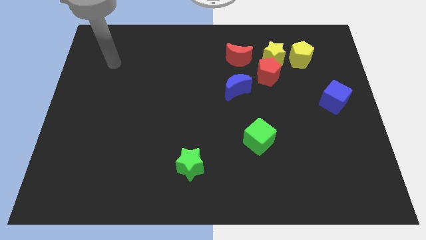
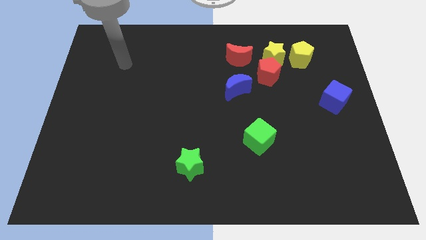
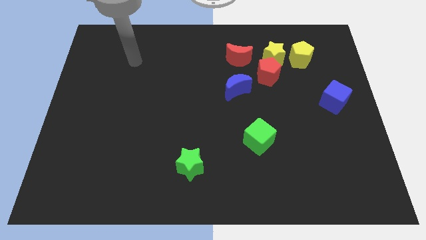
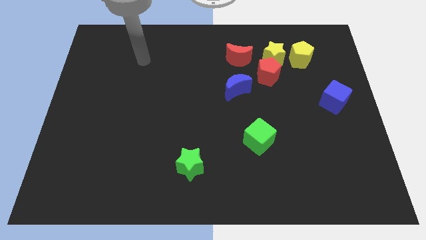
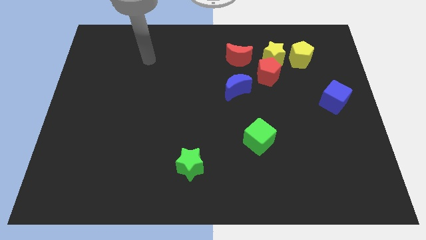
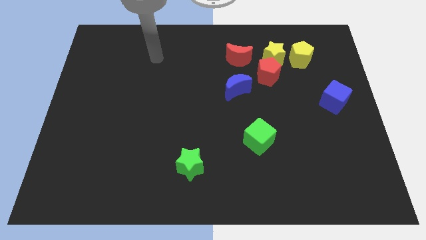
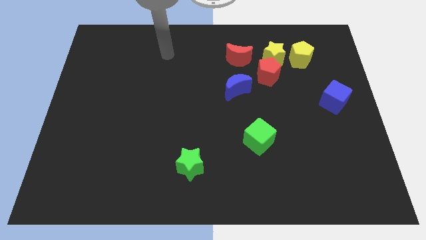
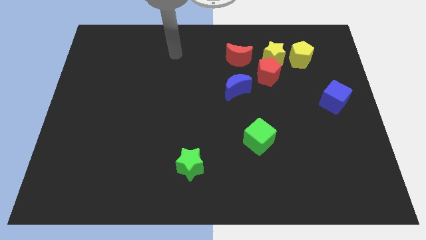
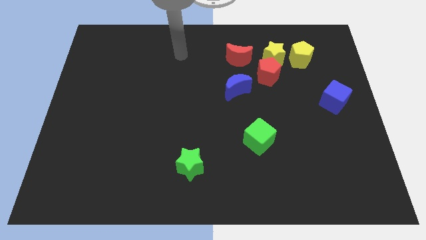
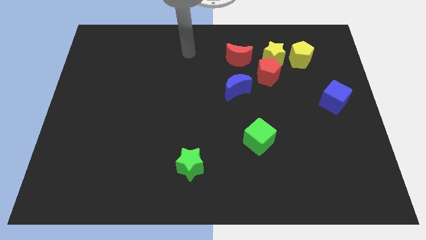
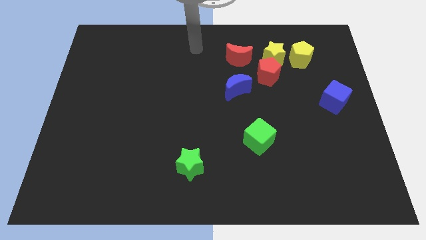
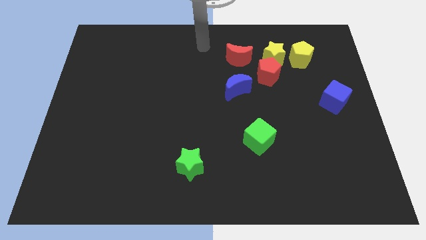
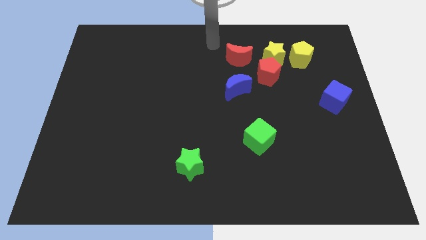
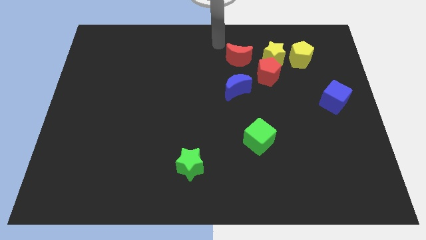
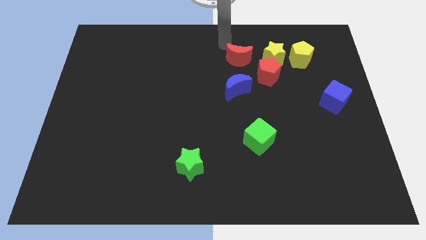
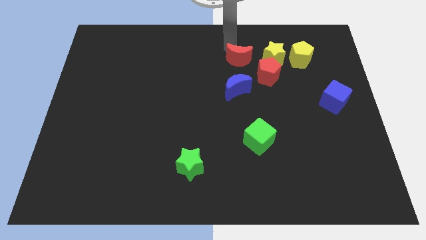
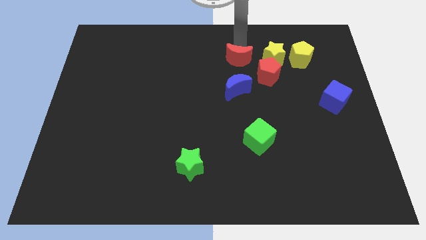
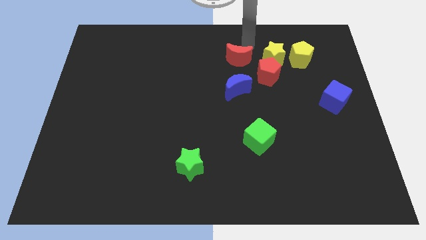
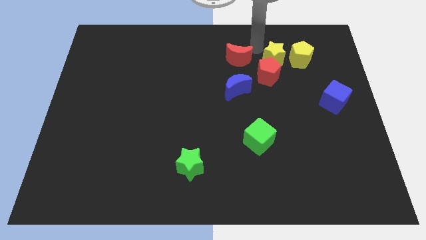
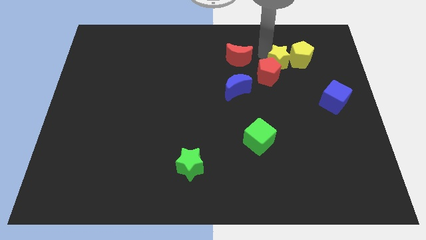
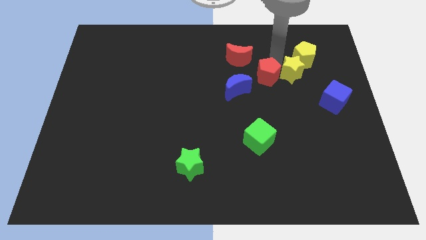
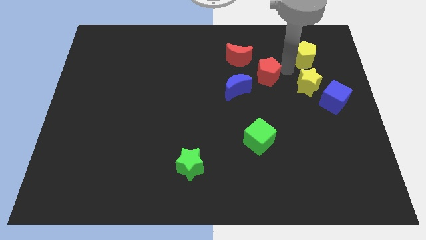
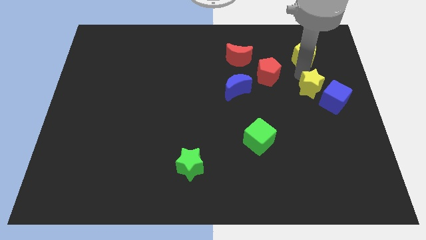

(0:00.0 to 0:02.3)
separate the yellow pentagon from the yellow star

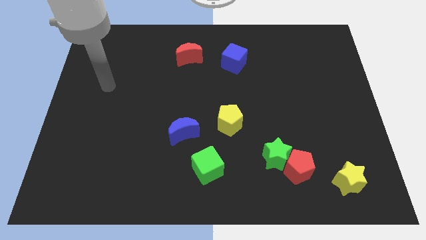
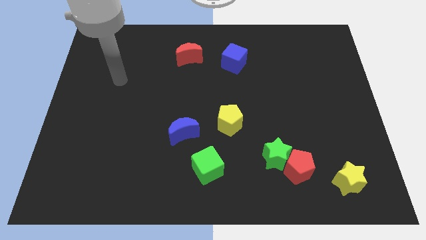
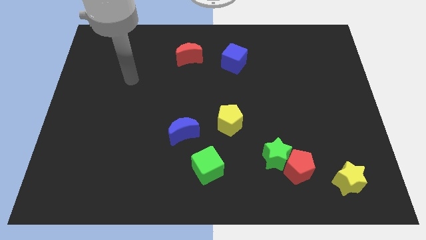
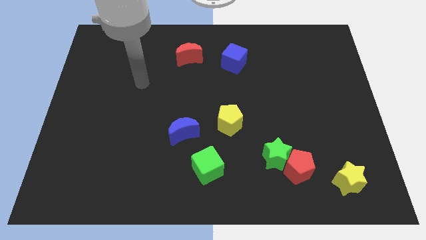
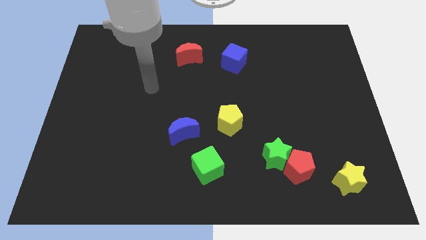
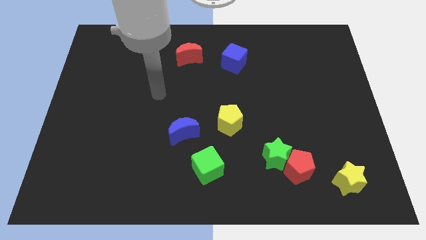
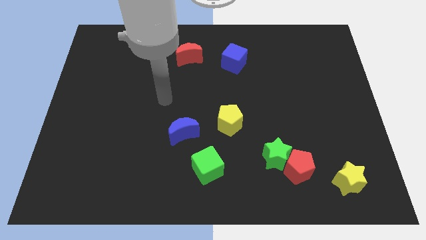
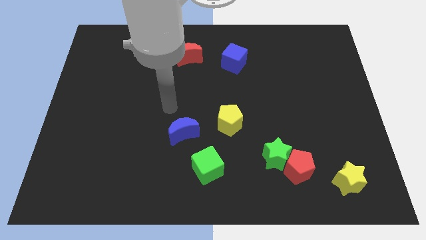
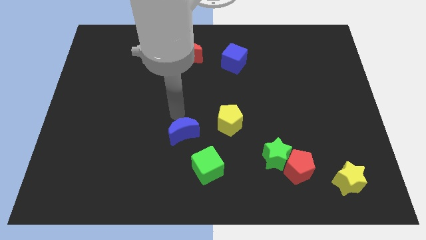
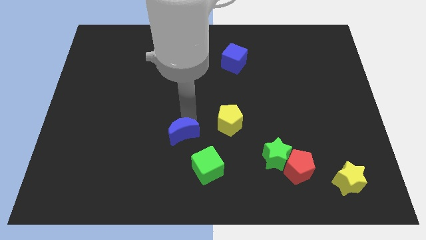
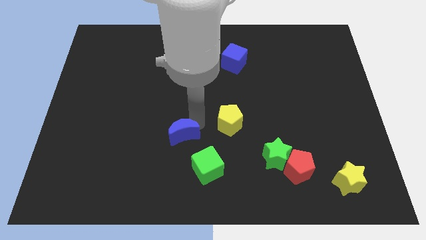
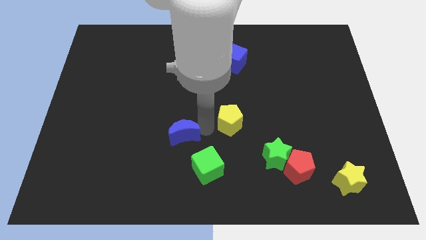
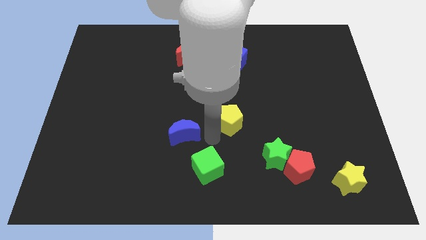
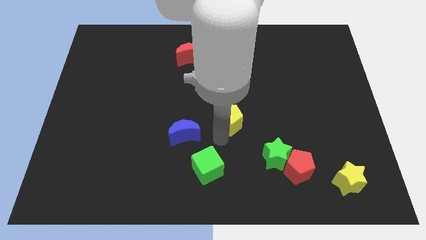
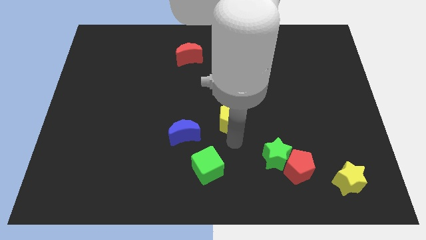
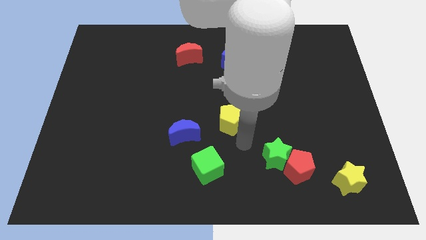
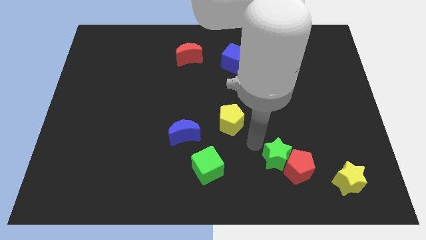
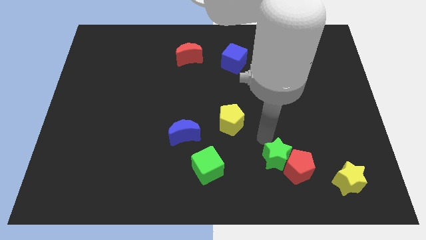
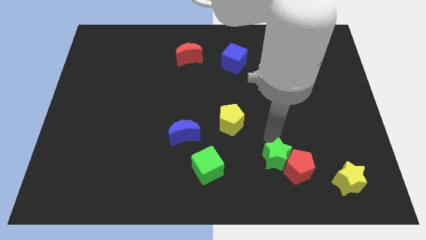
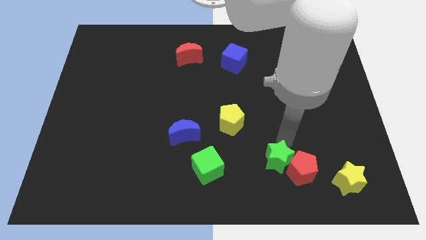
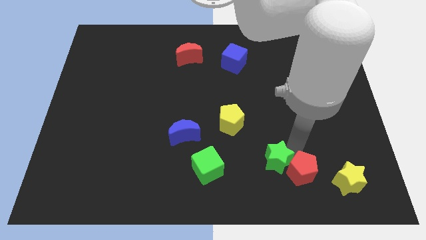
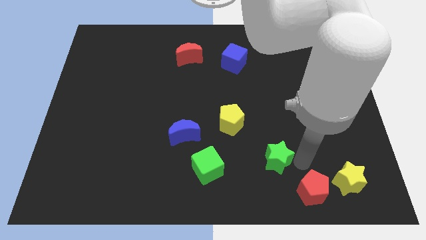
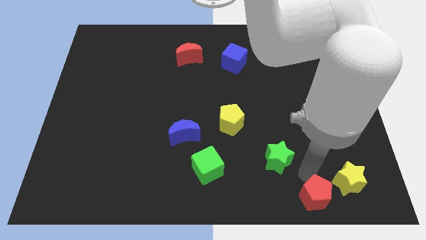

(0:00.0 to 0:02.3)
move the green star away from the red pentagon

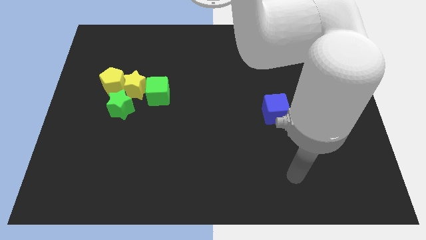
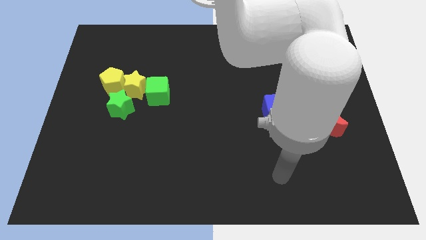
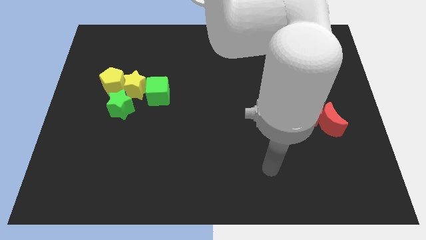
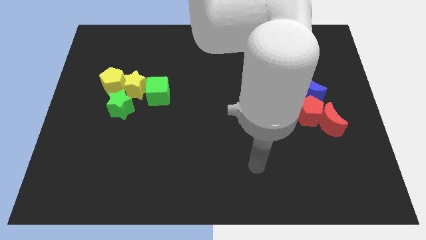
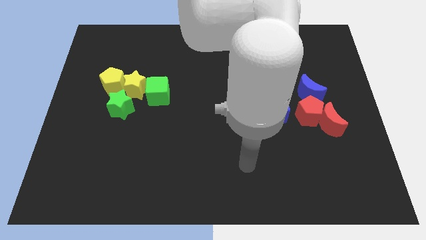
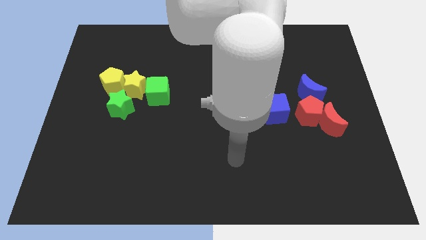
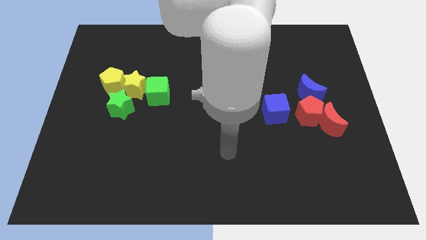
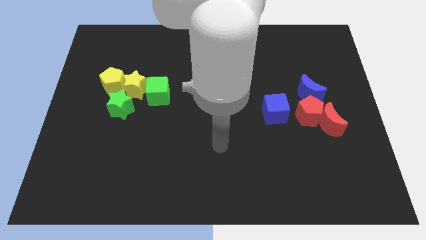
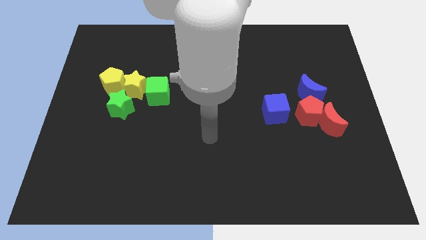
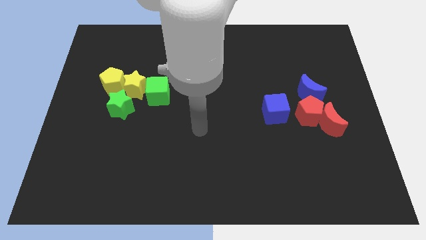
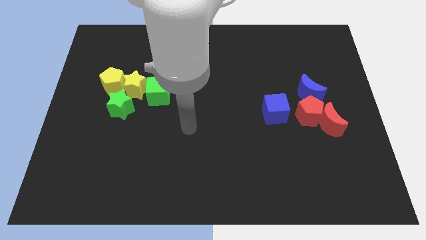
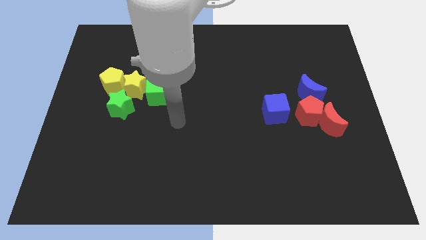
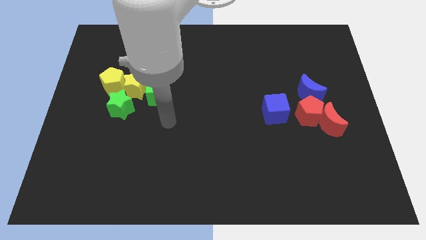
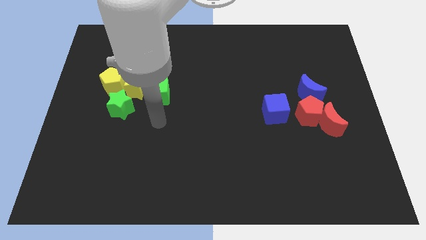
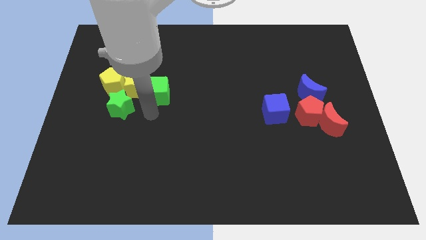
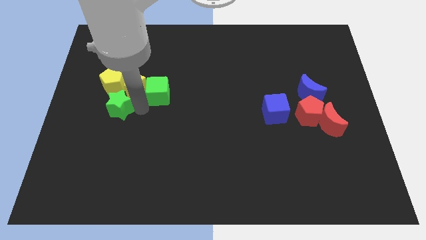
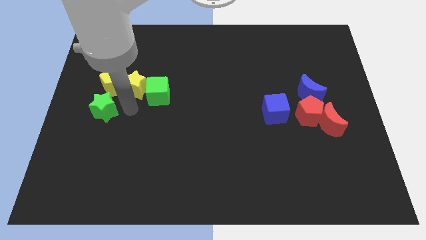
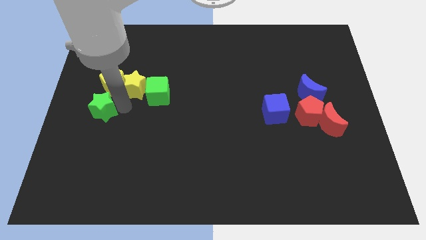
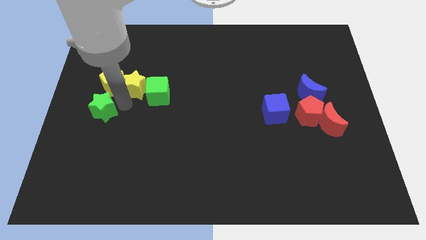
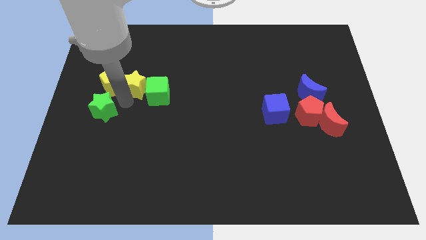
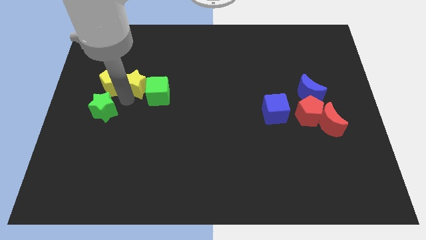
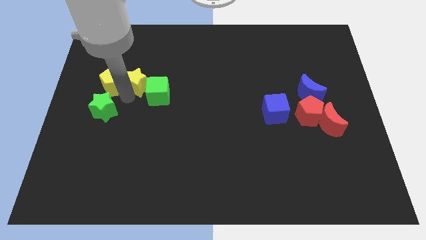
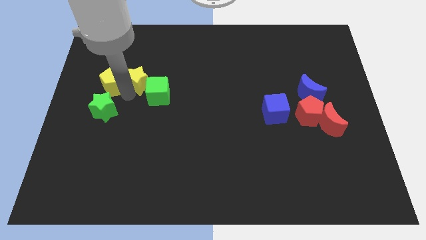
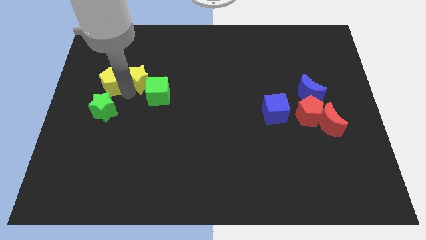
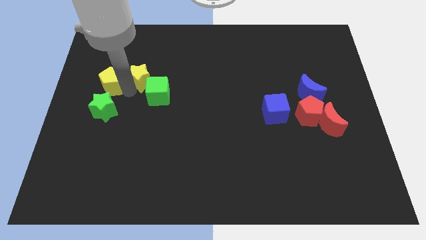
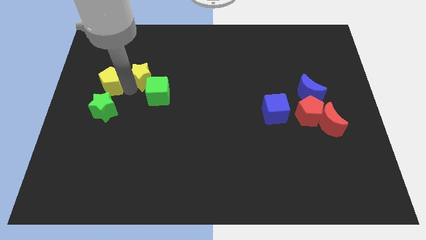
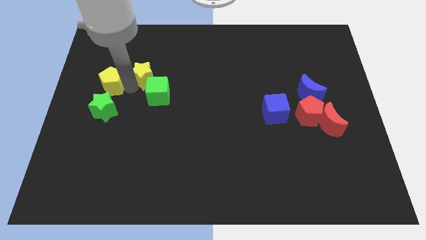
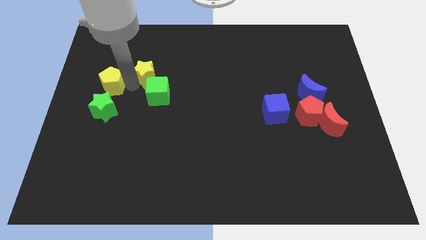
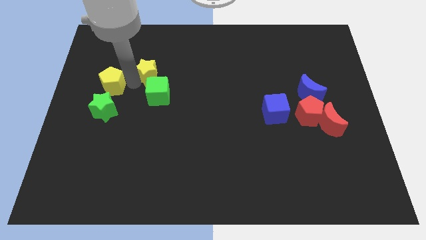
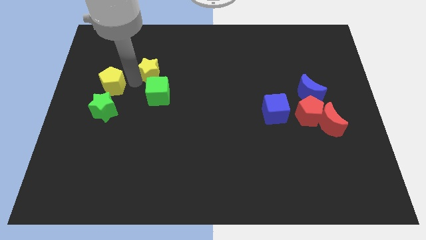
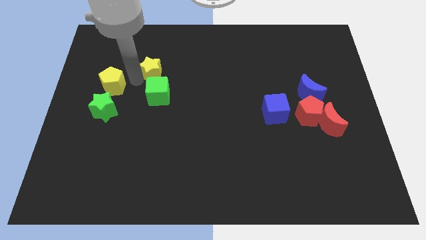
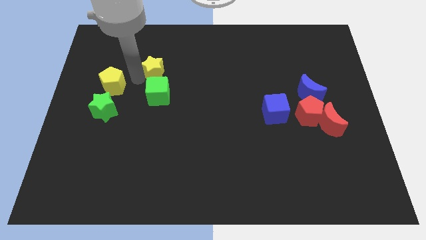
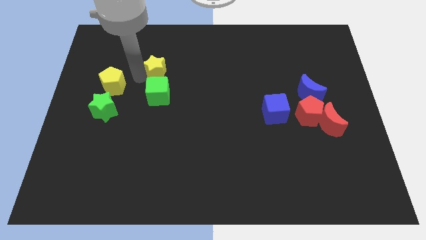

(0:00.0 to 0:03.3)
pull the yellow star apart from the green cube, yellow pentagon, and green star

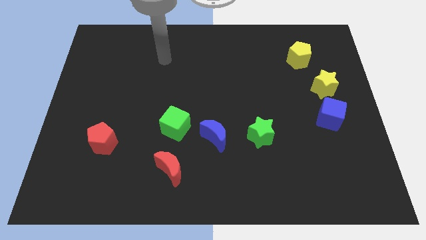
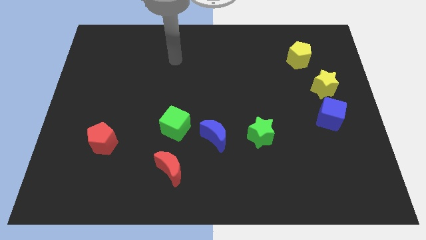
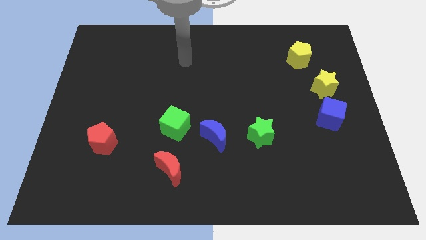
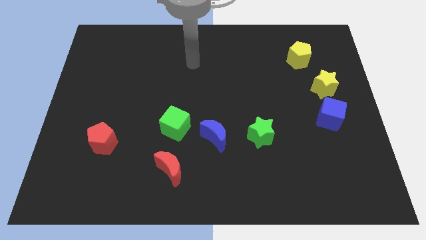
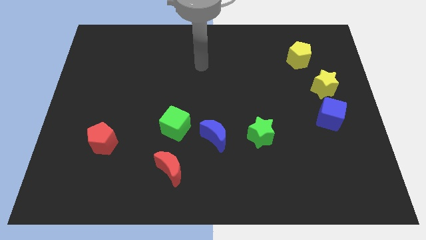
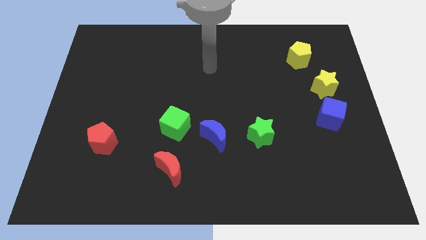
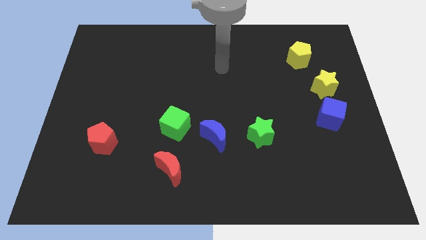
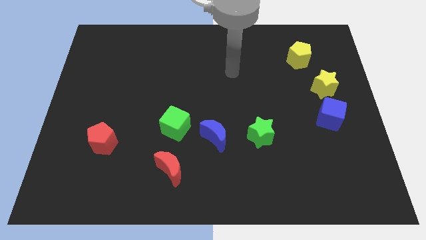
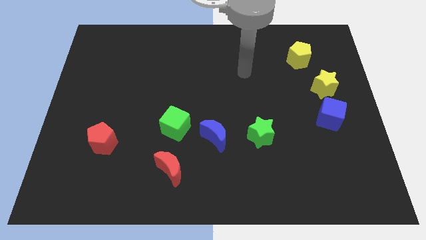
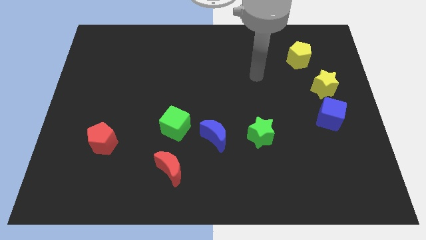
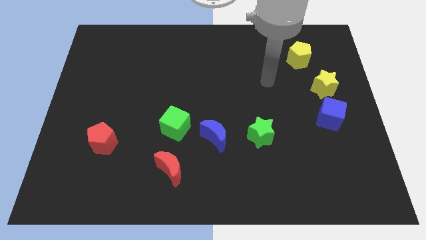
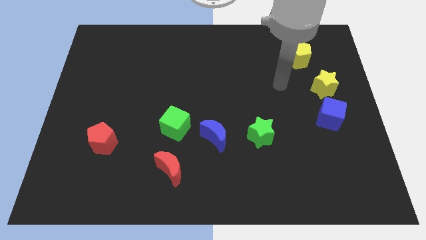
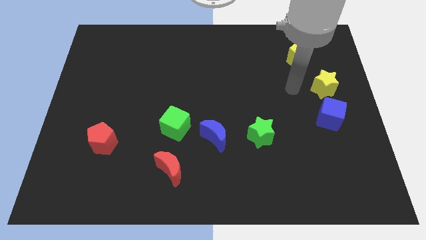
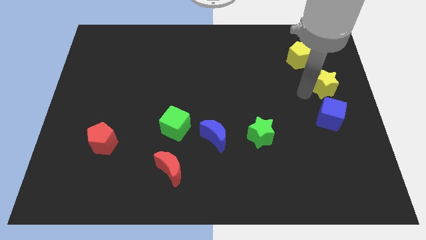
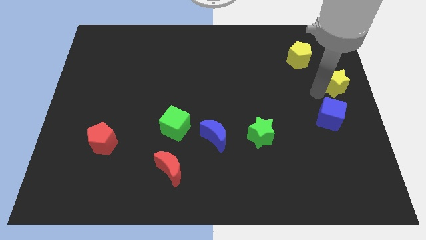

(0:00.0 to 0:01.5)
pull the blue cube apart from the yellow star
